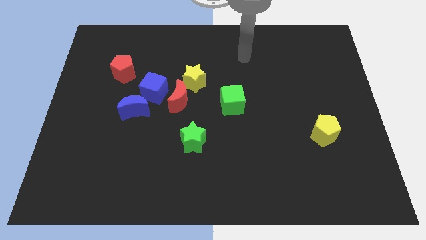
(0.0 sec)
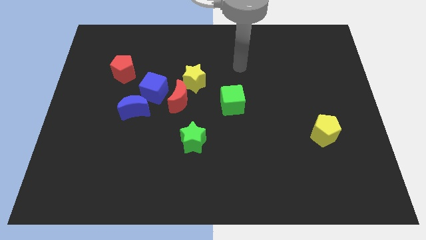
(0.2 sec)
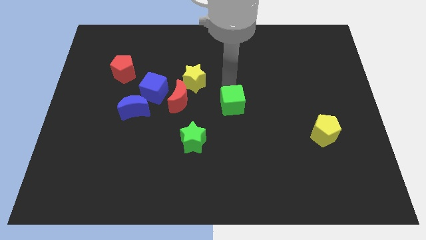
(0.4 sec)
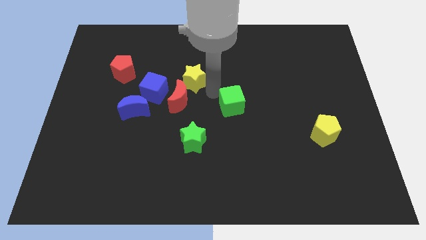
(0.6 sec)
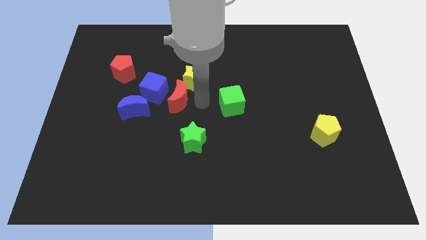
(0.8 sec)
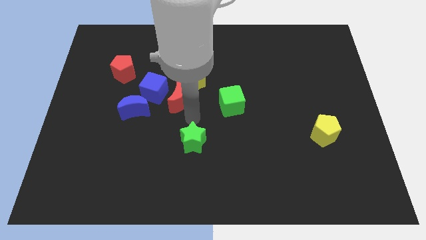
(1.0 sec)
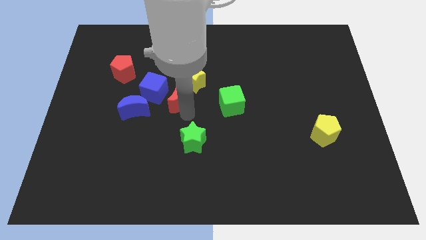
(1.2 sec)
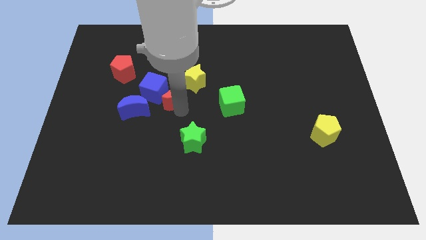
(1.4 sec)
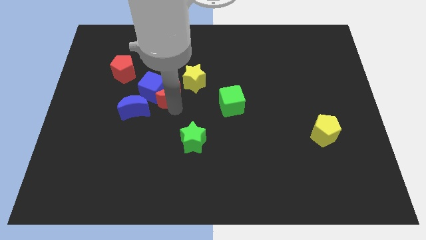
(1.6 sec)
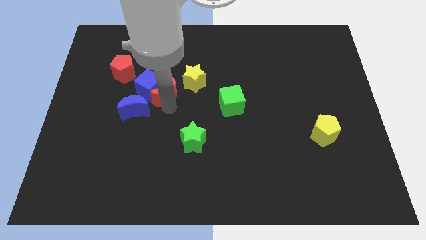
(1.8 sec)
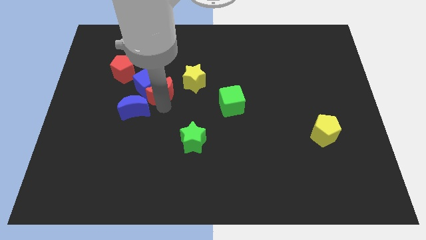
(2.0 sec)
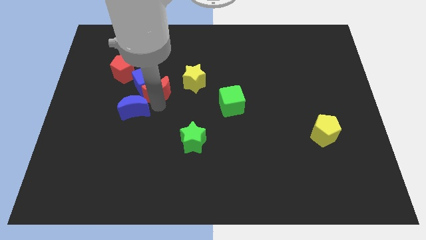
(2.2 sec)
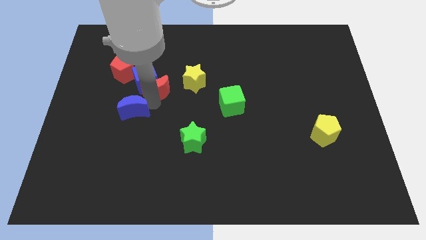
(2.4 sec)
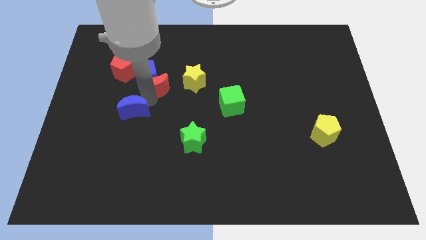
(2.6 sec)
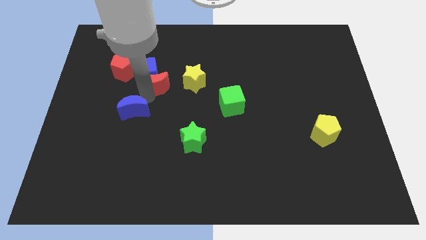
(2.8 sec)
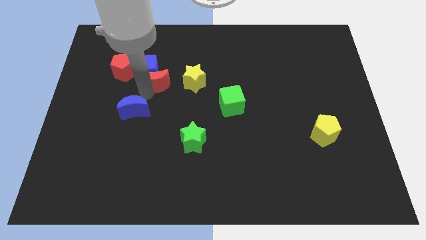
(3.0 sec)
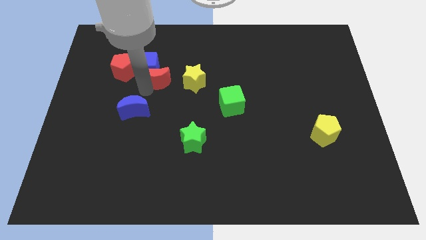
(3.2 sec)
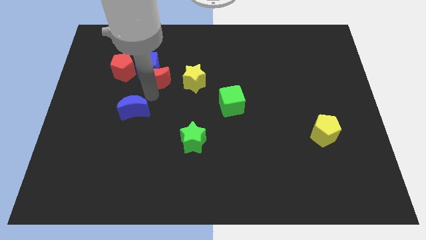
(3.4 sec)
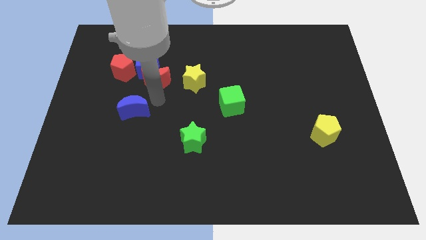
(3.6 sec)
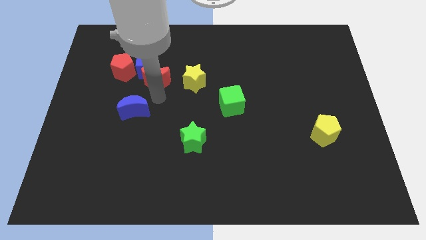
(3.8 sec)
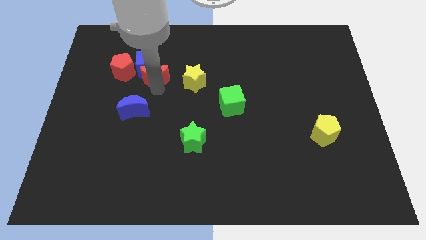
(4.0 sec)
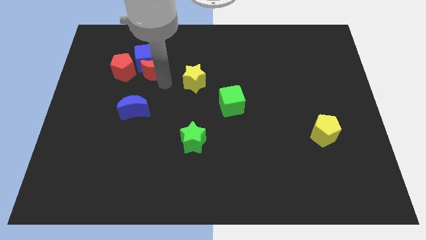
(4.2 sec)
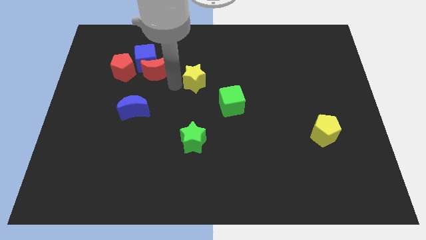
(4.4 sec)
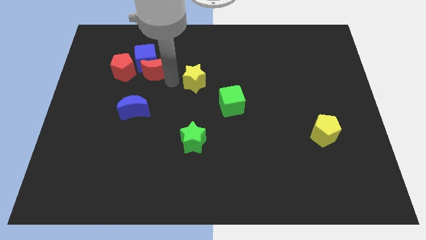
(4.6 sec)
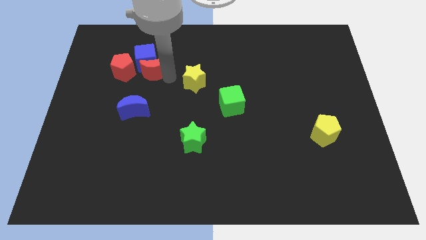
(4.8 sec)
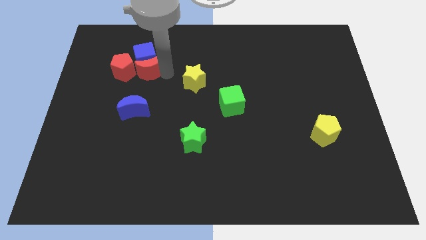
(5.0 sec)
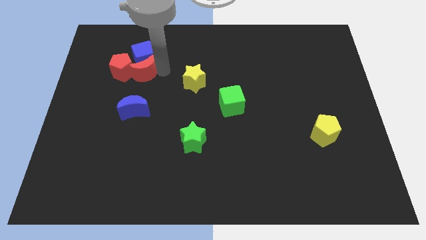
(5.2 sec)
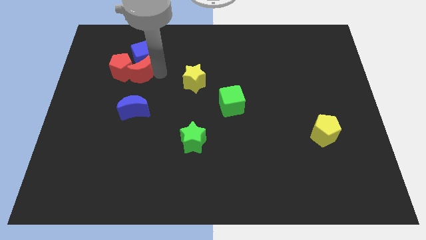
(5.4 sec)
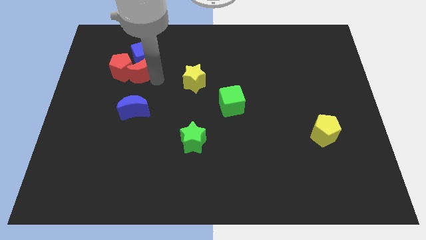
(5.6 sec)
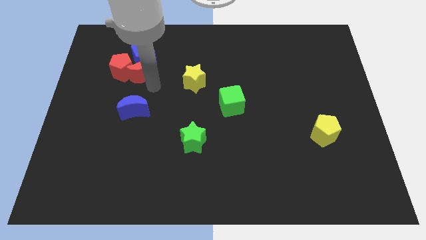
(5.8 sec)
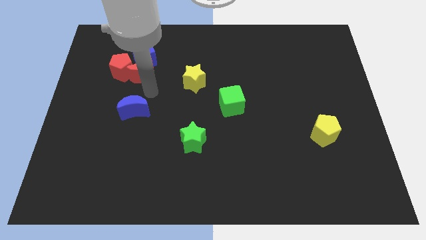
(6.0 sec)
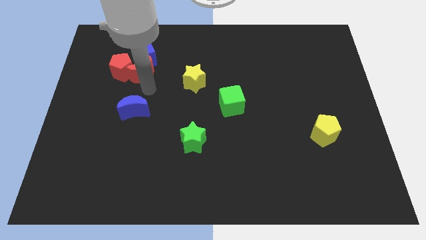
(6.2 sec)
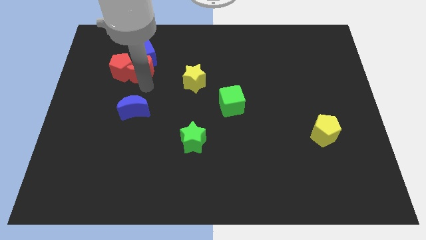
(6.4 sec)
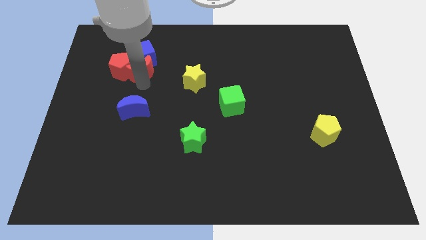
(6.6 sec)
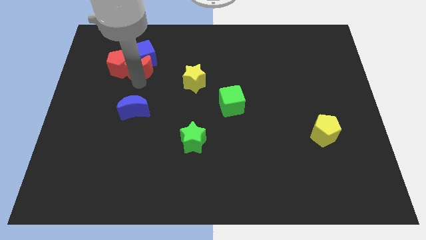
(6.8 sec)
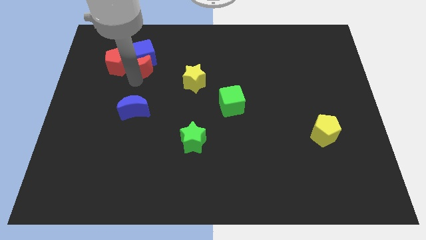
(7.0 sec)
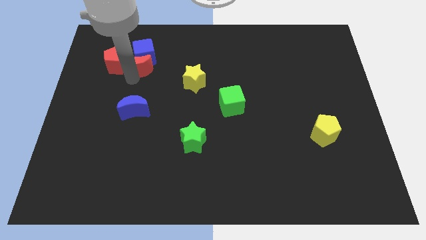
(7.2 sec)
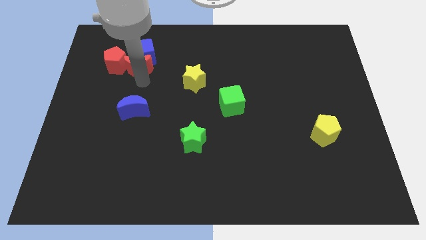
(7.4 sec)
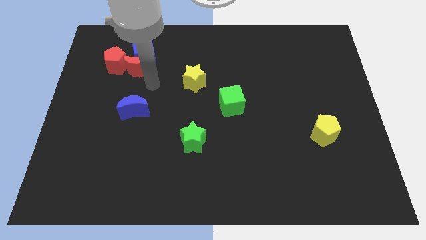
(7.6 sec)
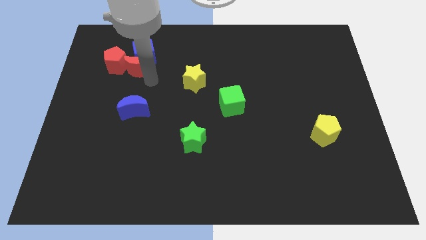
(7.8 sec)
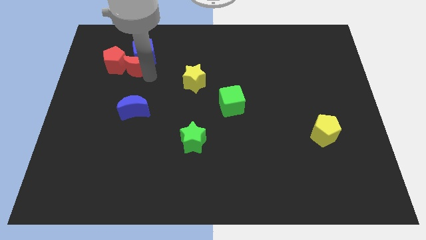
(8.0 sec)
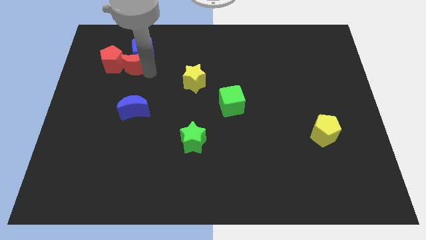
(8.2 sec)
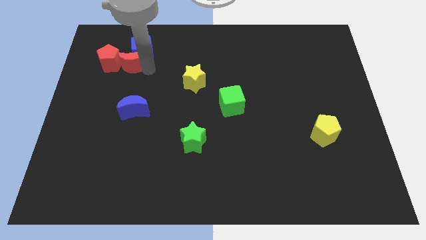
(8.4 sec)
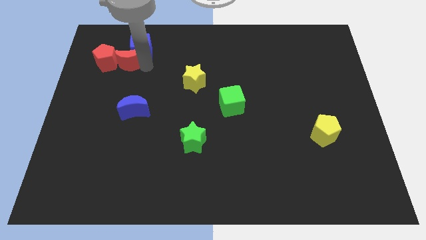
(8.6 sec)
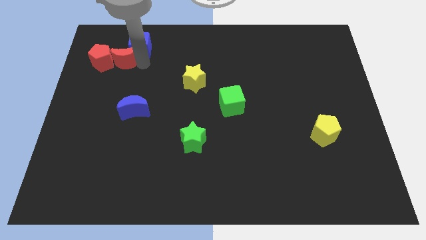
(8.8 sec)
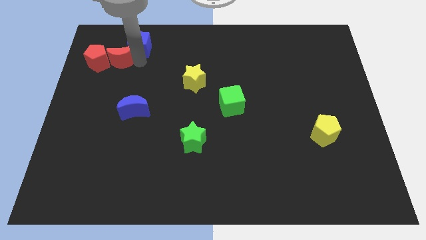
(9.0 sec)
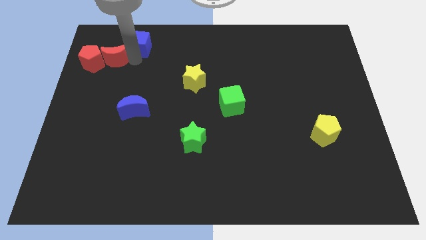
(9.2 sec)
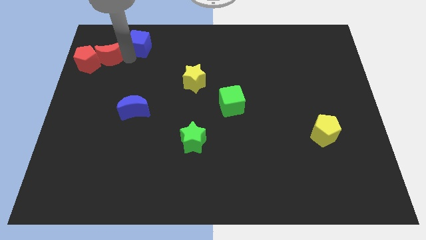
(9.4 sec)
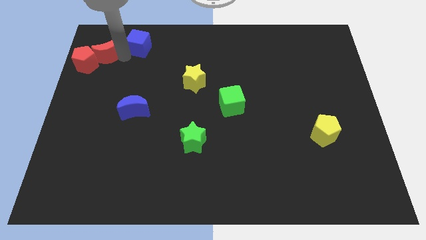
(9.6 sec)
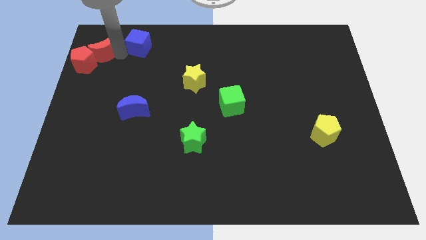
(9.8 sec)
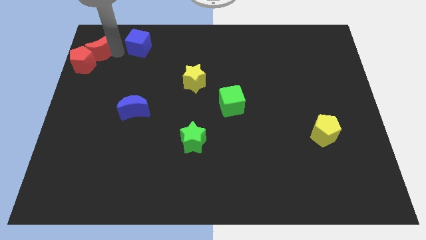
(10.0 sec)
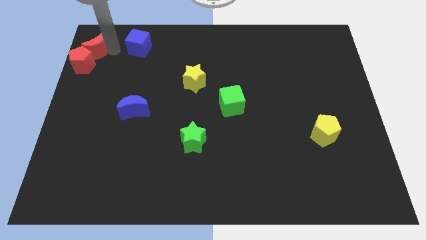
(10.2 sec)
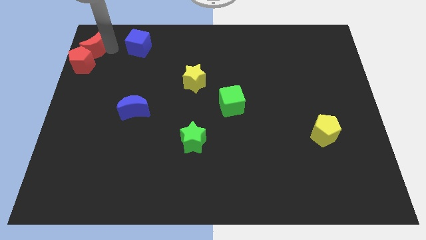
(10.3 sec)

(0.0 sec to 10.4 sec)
push the red moon to the top left of the board
